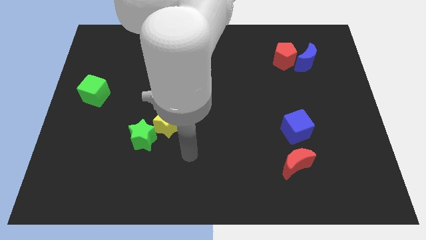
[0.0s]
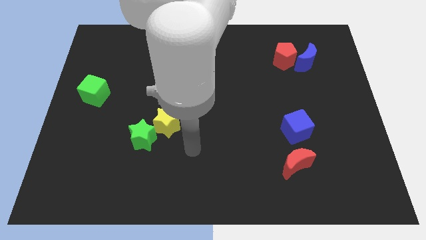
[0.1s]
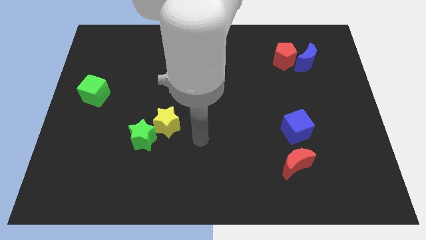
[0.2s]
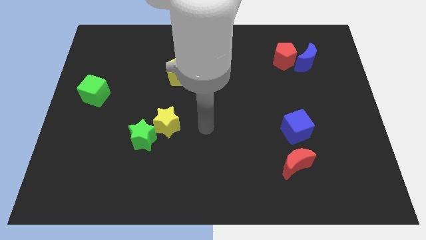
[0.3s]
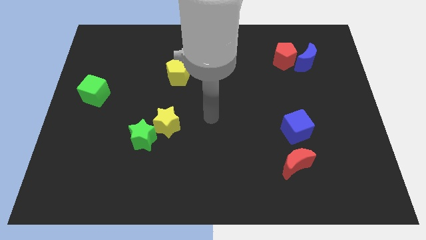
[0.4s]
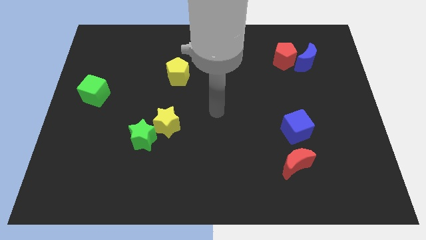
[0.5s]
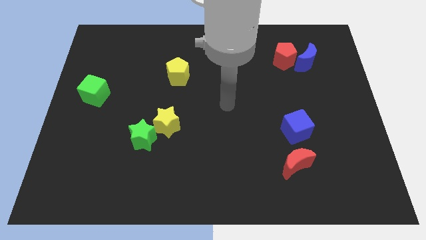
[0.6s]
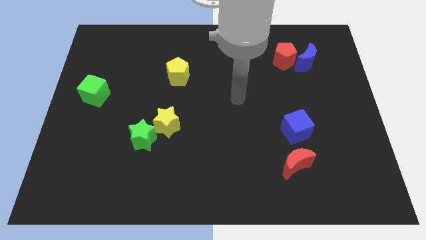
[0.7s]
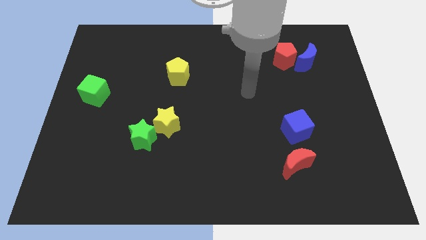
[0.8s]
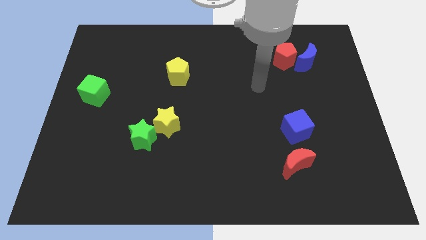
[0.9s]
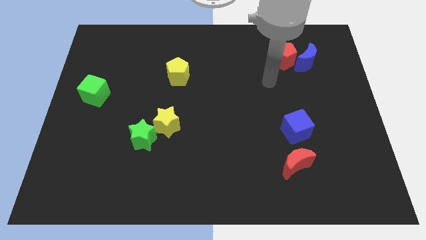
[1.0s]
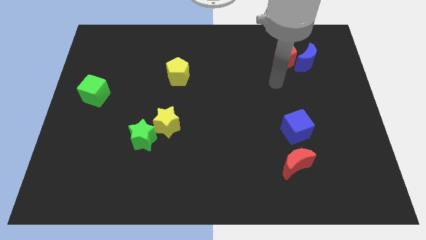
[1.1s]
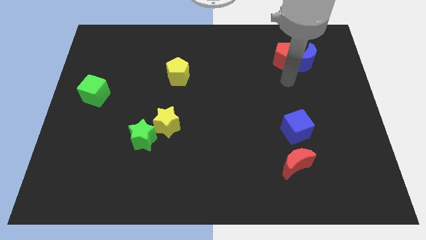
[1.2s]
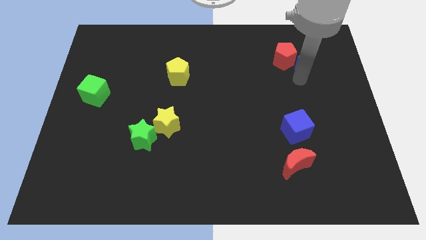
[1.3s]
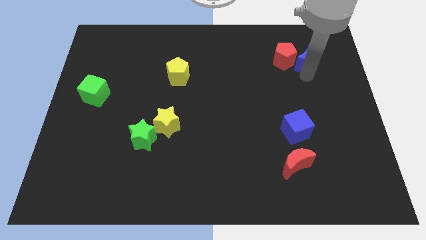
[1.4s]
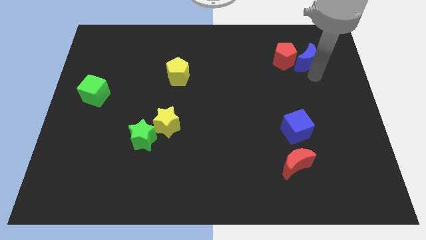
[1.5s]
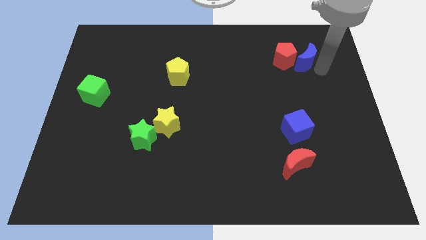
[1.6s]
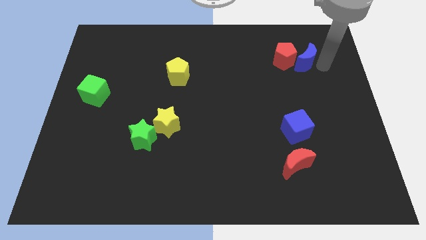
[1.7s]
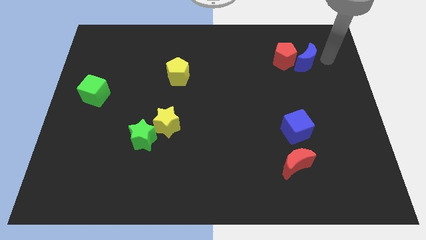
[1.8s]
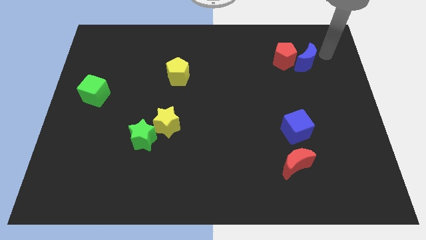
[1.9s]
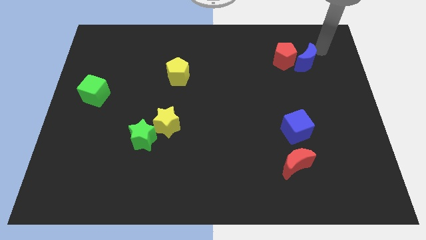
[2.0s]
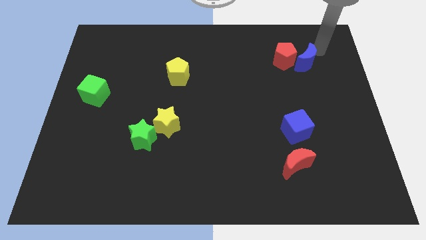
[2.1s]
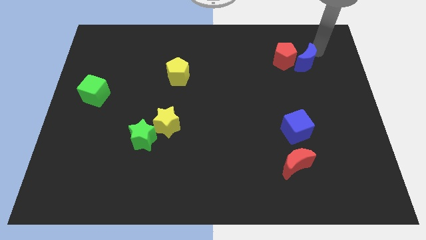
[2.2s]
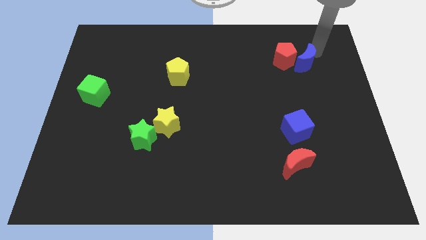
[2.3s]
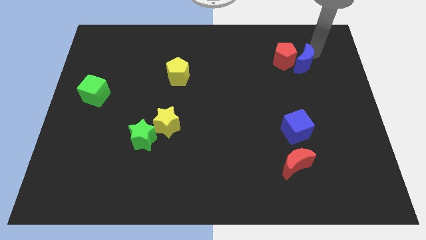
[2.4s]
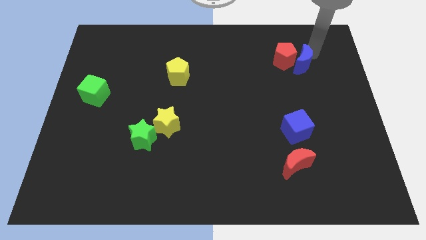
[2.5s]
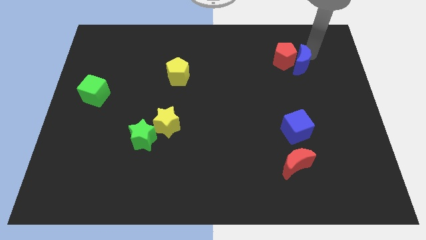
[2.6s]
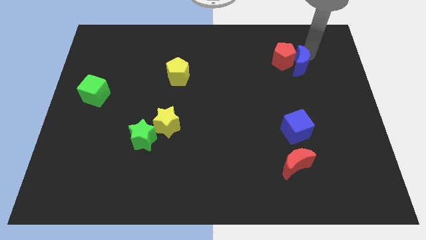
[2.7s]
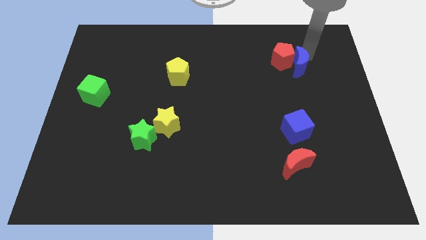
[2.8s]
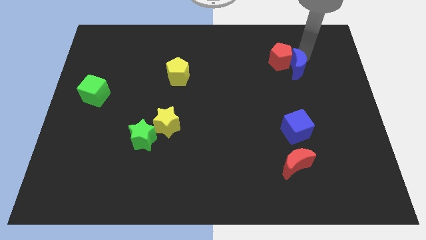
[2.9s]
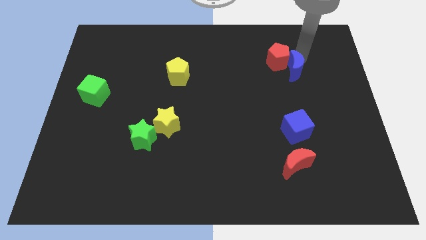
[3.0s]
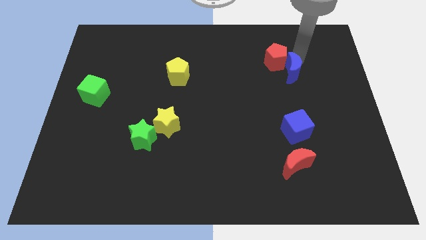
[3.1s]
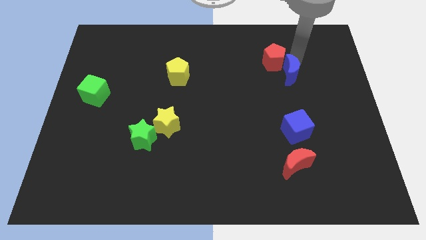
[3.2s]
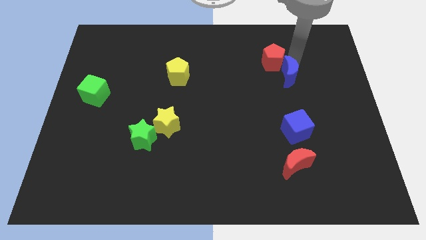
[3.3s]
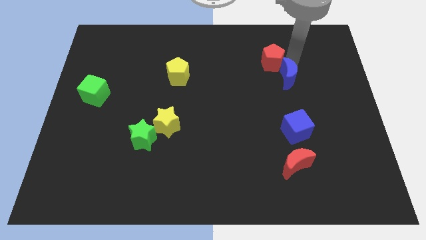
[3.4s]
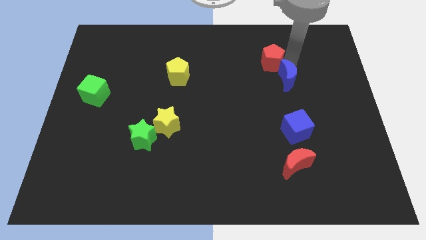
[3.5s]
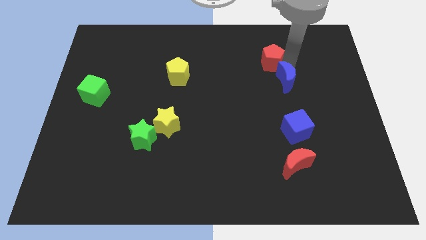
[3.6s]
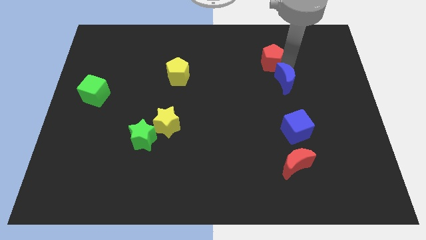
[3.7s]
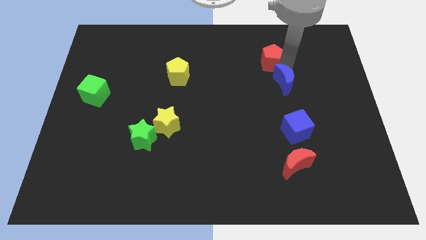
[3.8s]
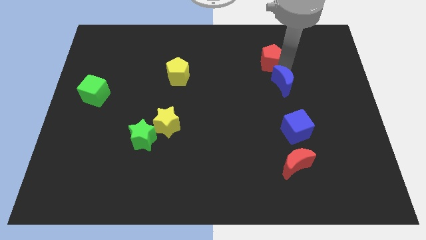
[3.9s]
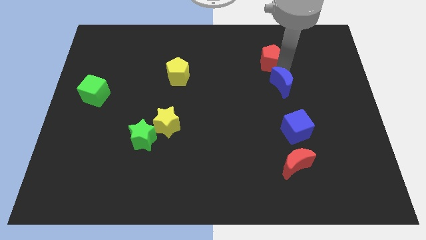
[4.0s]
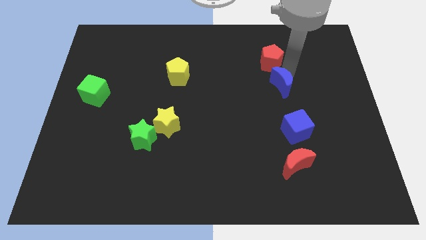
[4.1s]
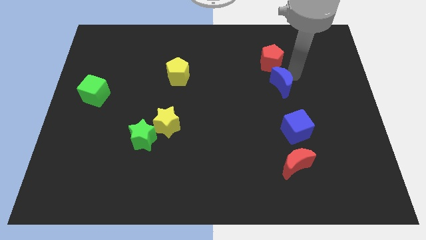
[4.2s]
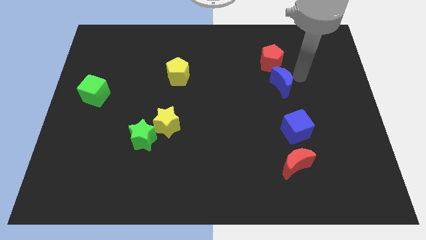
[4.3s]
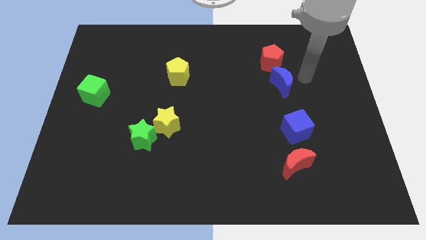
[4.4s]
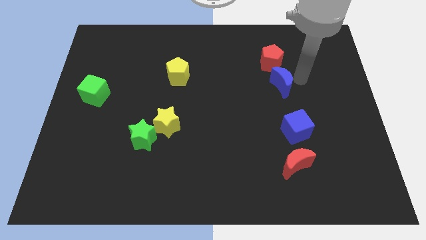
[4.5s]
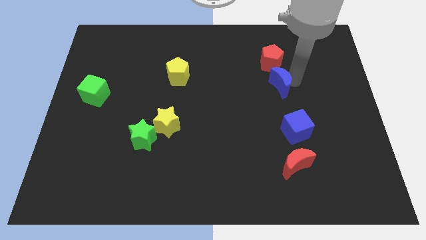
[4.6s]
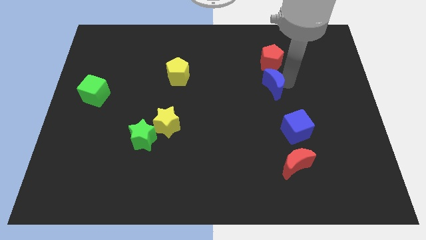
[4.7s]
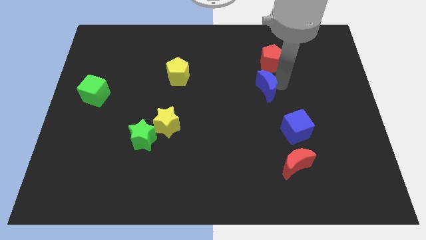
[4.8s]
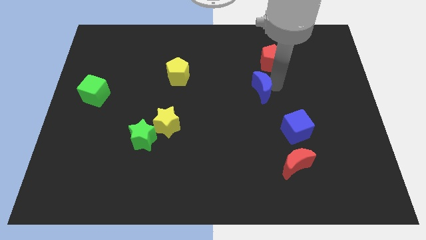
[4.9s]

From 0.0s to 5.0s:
move the blue moon to the middle of the board

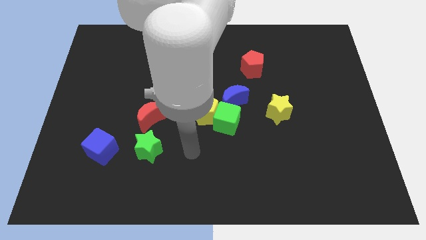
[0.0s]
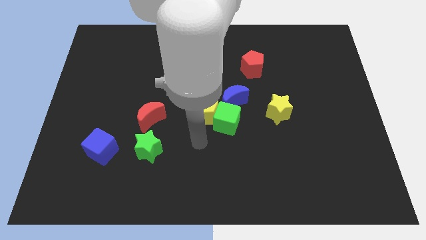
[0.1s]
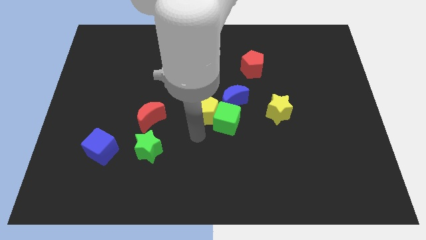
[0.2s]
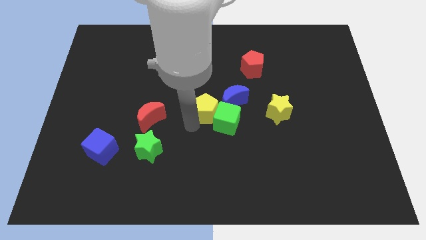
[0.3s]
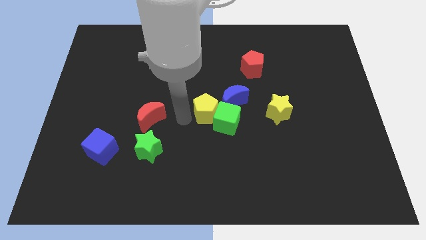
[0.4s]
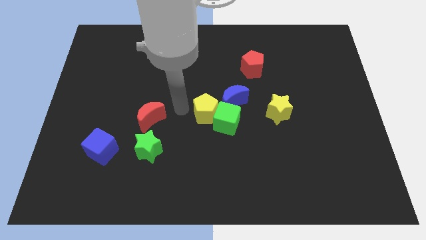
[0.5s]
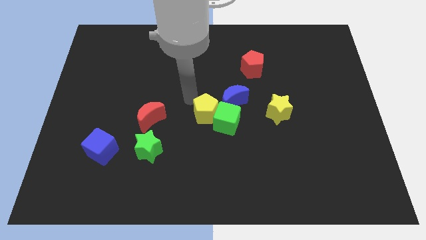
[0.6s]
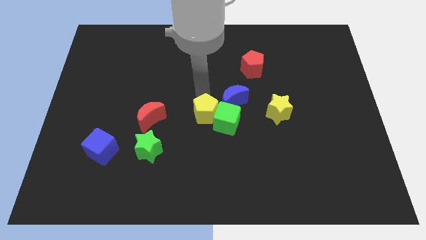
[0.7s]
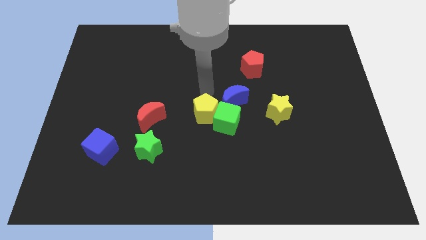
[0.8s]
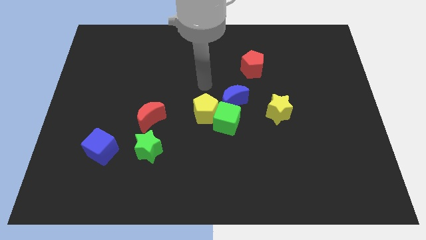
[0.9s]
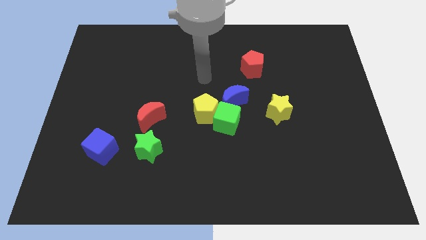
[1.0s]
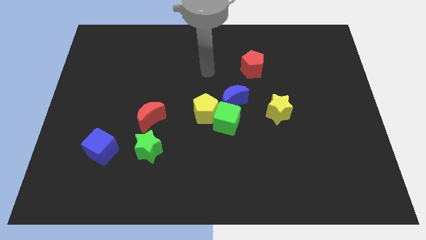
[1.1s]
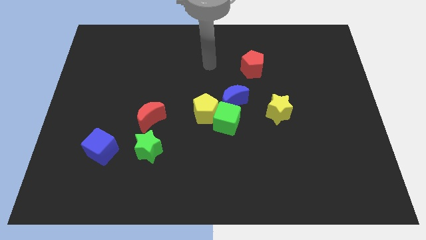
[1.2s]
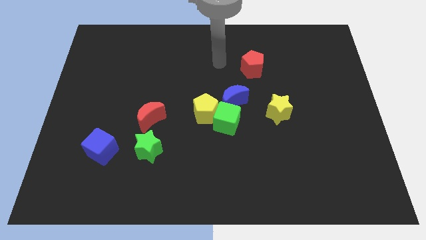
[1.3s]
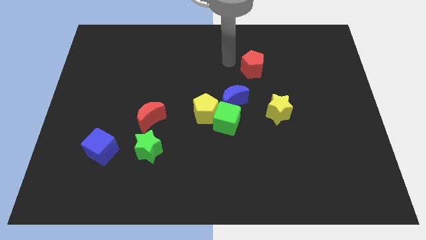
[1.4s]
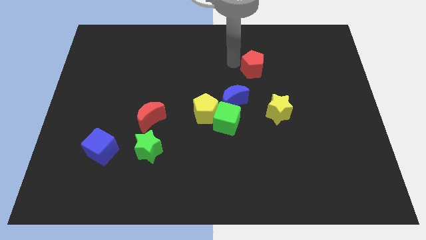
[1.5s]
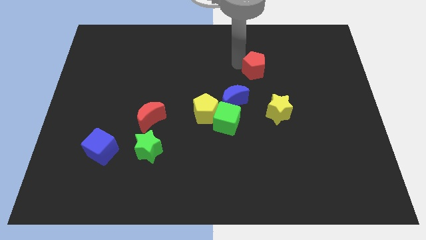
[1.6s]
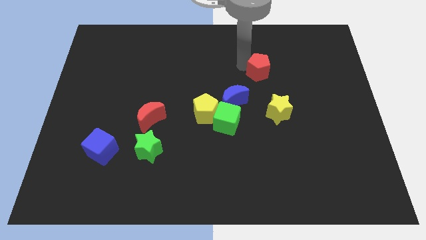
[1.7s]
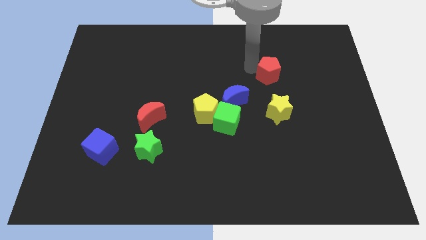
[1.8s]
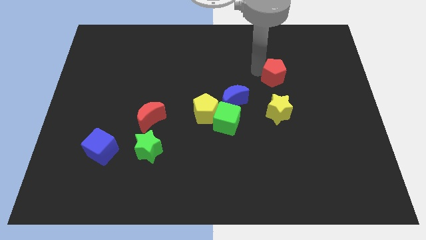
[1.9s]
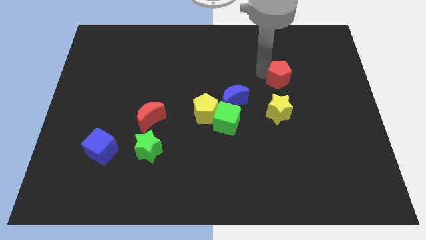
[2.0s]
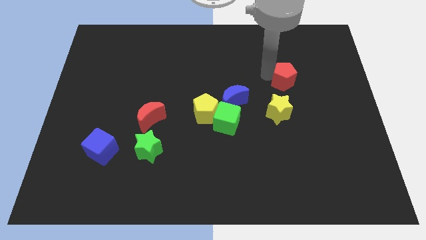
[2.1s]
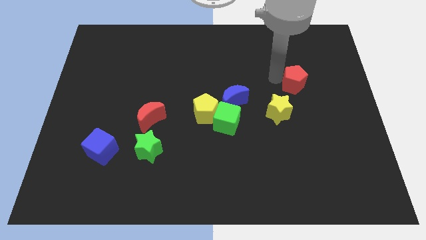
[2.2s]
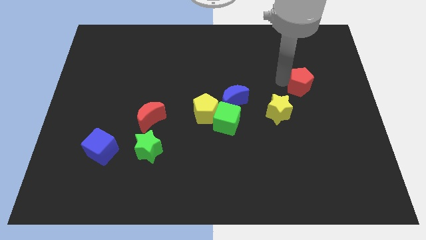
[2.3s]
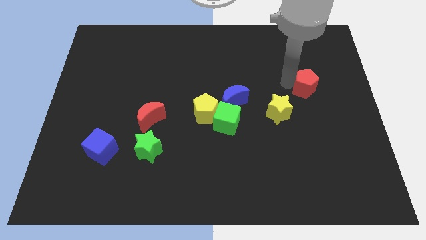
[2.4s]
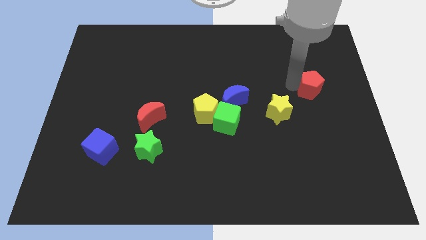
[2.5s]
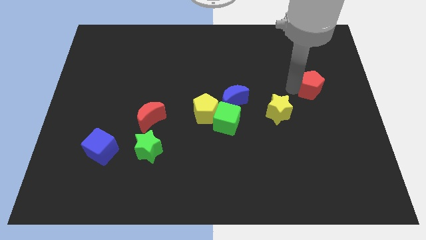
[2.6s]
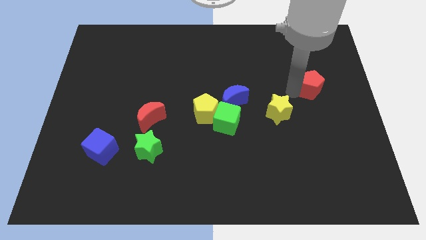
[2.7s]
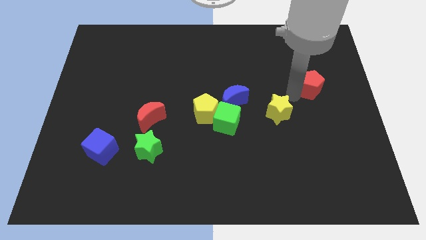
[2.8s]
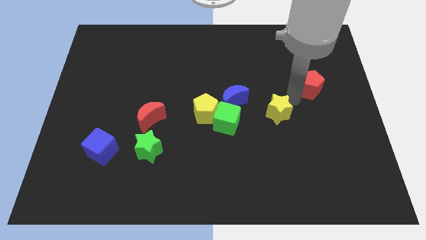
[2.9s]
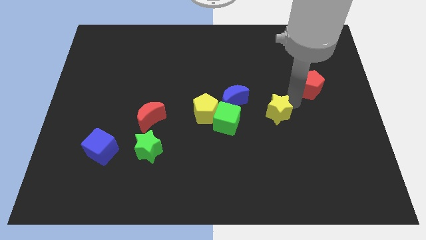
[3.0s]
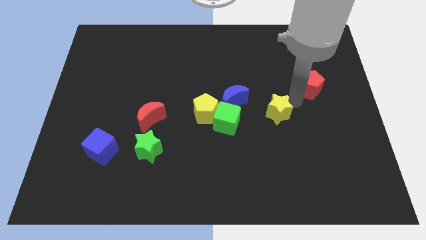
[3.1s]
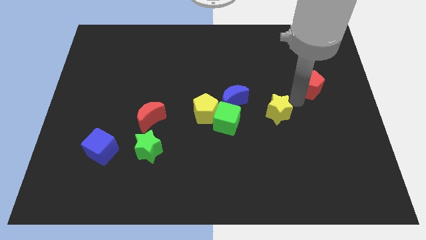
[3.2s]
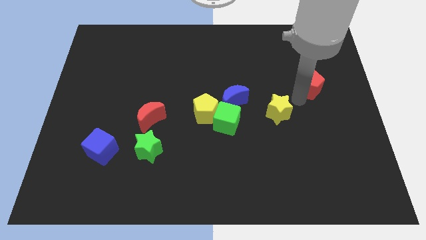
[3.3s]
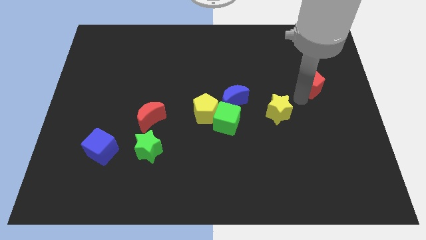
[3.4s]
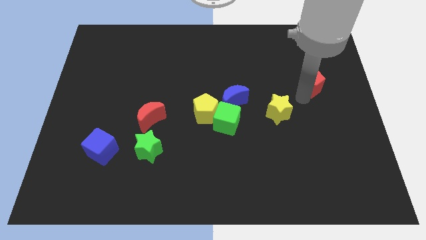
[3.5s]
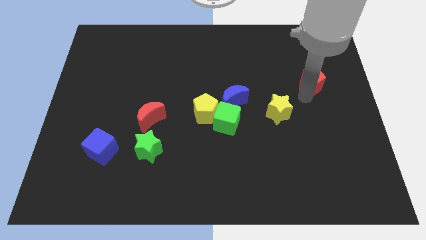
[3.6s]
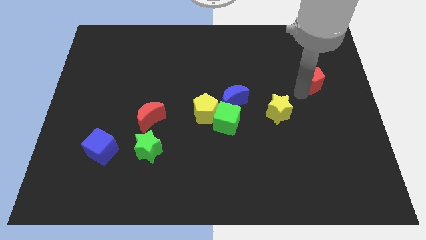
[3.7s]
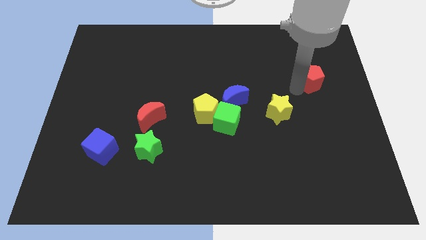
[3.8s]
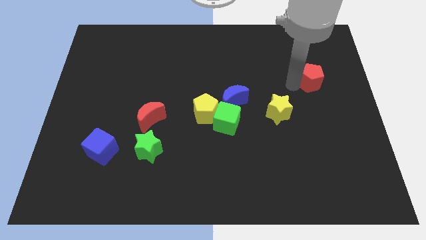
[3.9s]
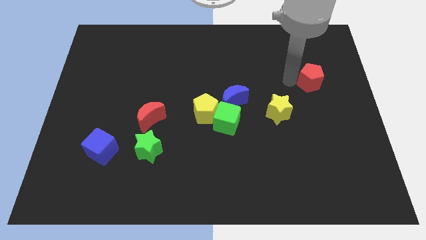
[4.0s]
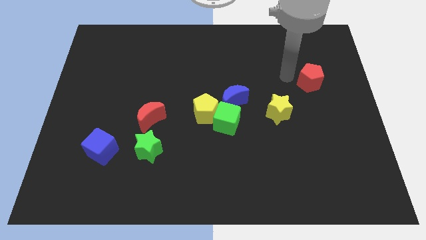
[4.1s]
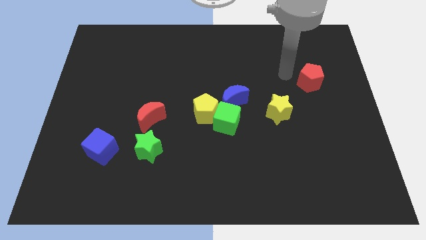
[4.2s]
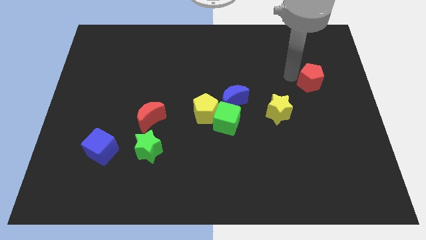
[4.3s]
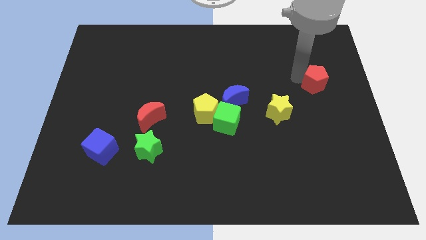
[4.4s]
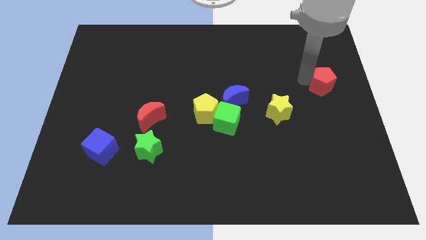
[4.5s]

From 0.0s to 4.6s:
move the red pentagon to the right side
